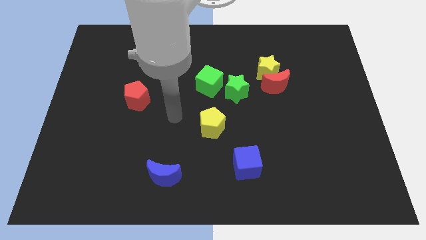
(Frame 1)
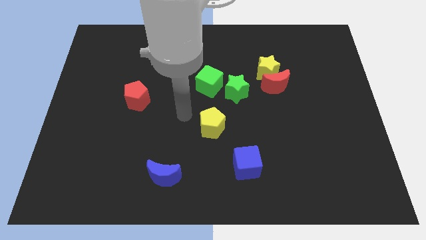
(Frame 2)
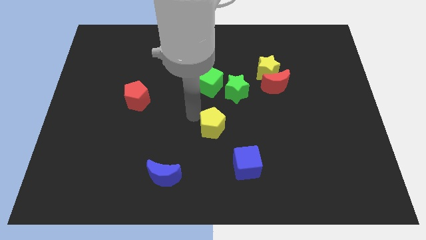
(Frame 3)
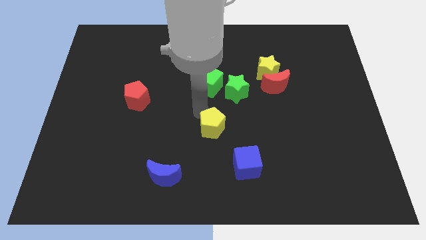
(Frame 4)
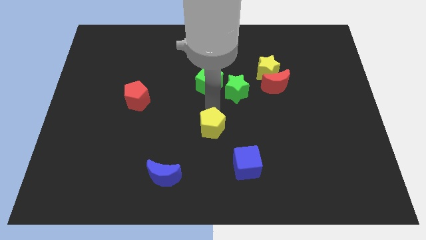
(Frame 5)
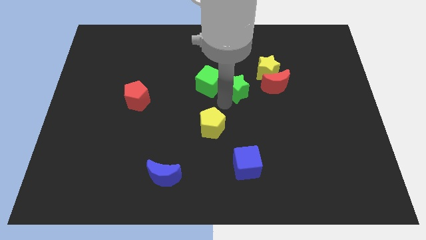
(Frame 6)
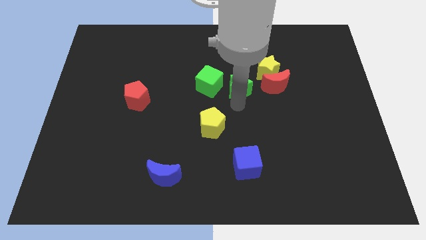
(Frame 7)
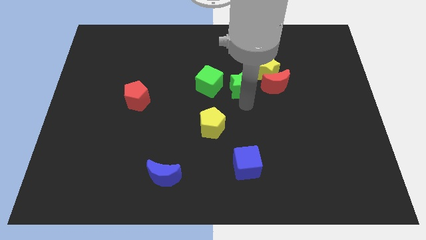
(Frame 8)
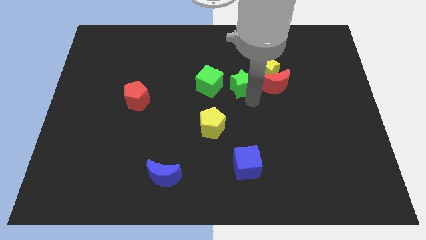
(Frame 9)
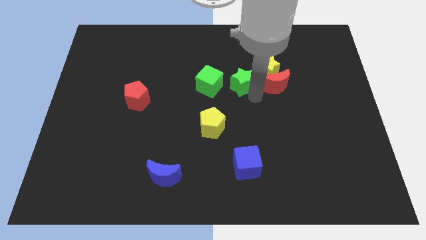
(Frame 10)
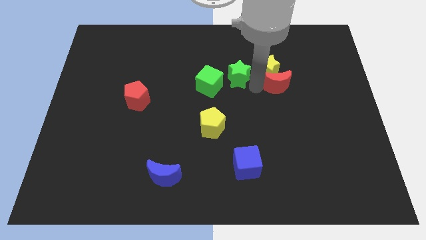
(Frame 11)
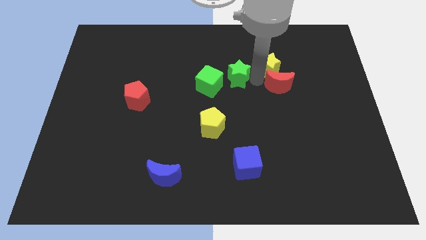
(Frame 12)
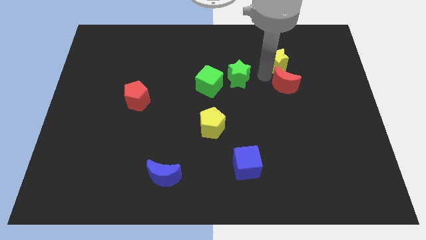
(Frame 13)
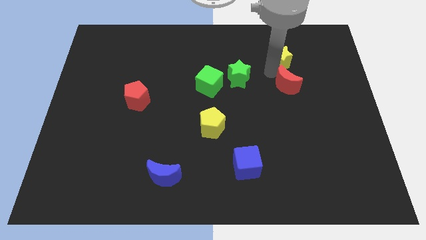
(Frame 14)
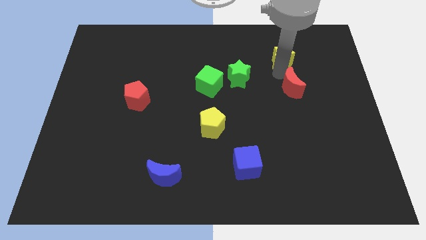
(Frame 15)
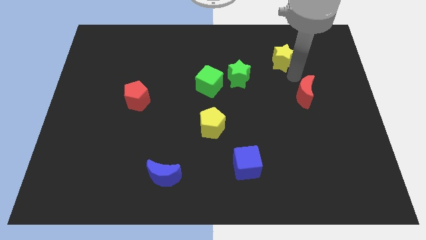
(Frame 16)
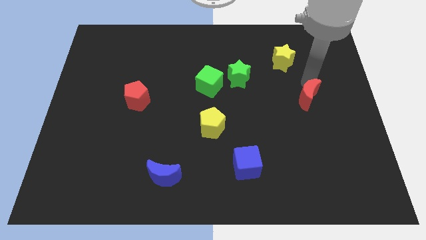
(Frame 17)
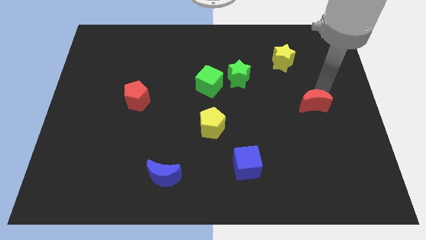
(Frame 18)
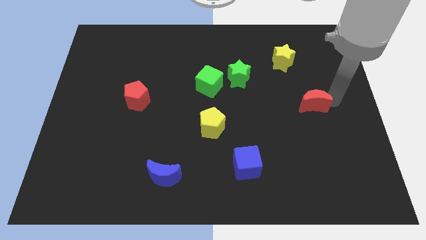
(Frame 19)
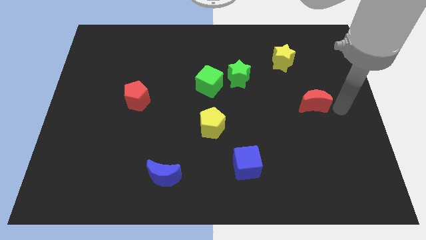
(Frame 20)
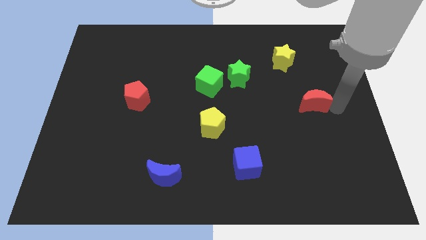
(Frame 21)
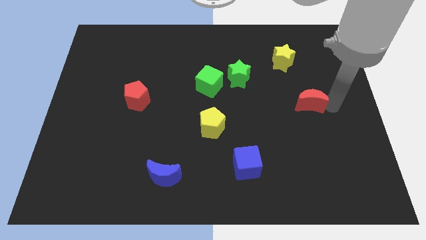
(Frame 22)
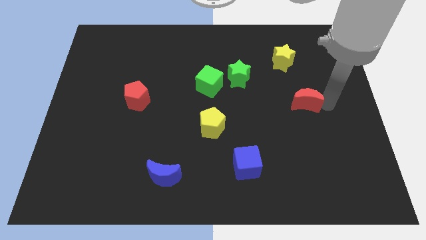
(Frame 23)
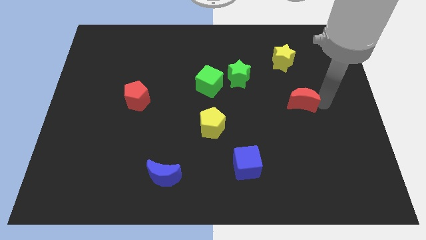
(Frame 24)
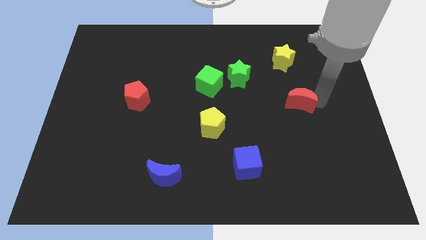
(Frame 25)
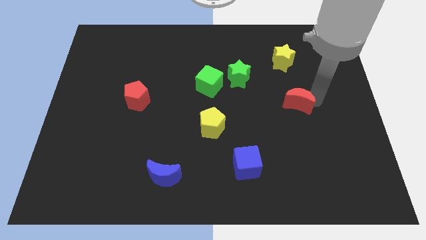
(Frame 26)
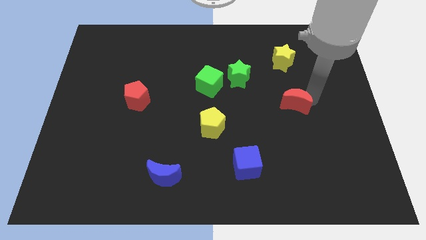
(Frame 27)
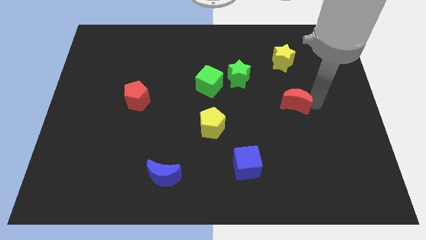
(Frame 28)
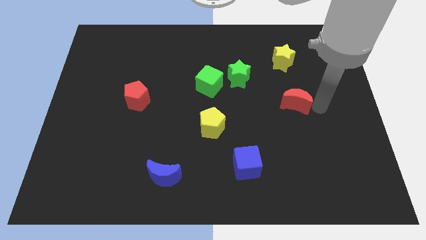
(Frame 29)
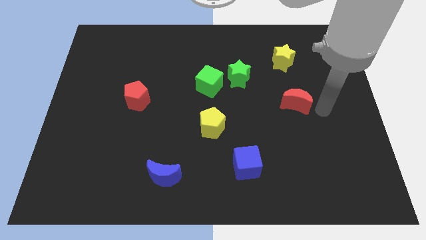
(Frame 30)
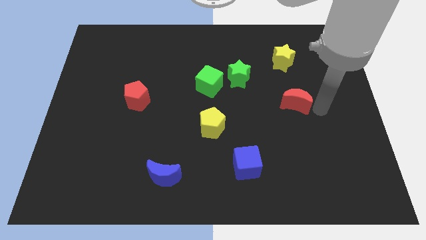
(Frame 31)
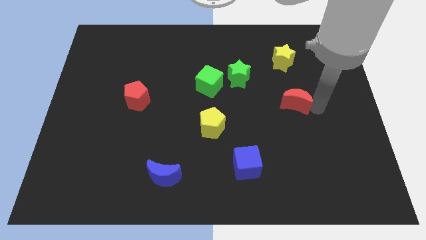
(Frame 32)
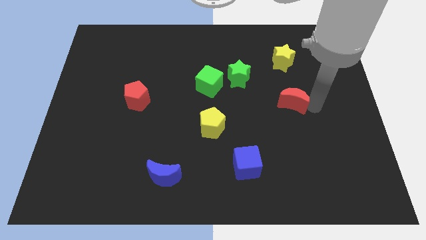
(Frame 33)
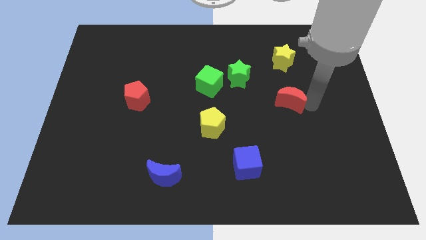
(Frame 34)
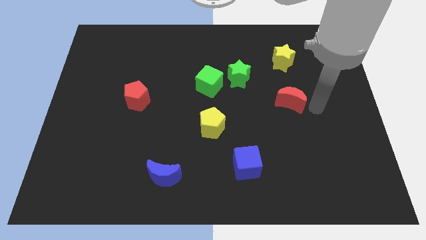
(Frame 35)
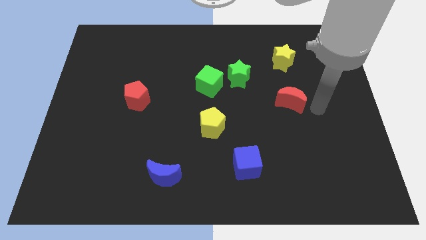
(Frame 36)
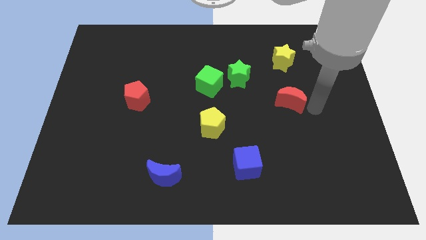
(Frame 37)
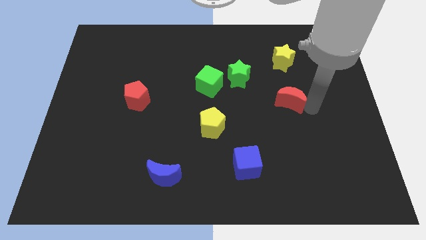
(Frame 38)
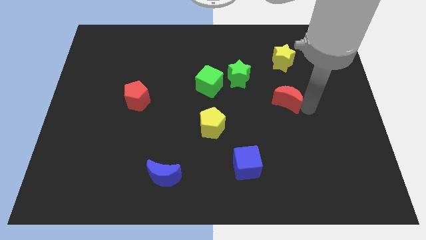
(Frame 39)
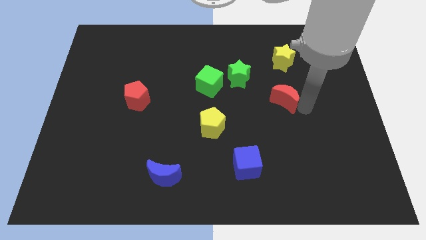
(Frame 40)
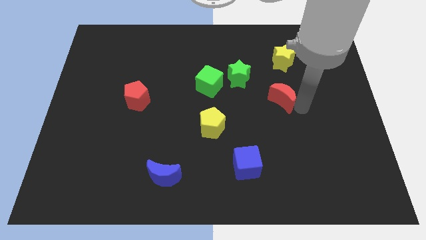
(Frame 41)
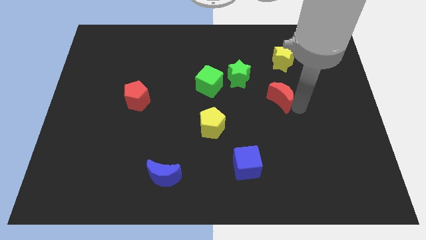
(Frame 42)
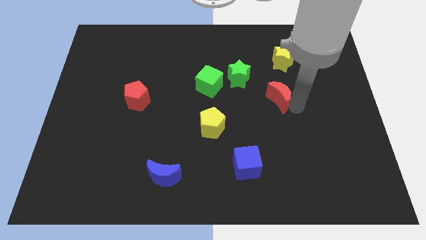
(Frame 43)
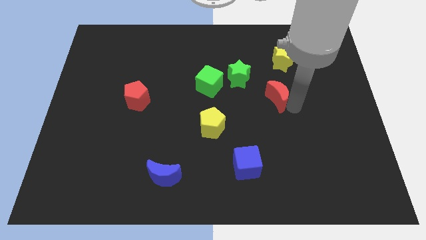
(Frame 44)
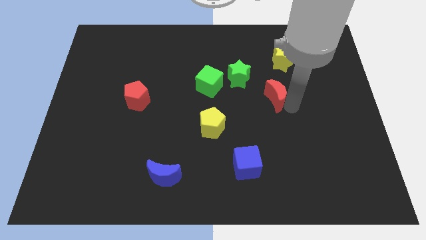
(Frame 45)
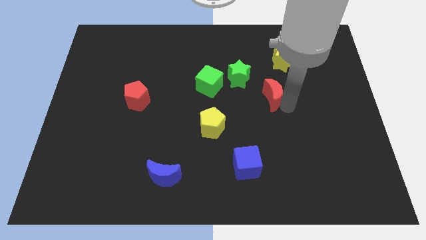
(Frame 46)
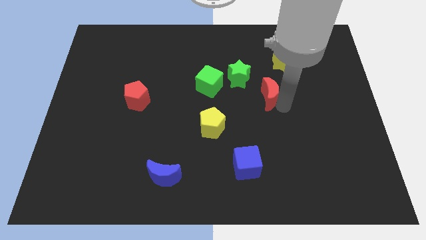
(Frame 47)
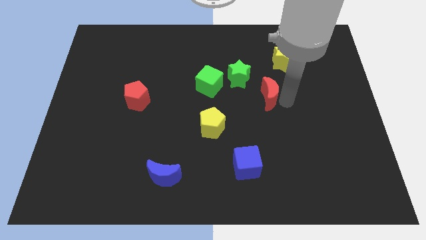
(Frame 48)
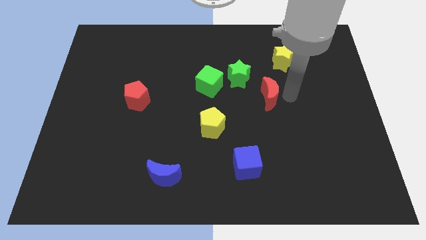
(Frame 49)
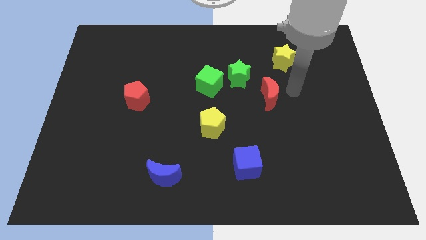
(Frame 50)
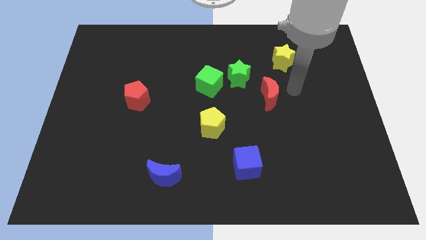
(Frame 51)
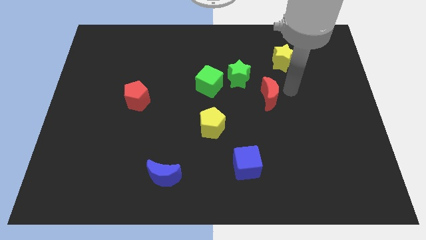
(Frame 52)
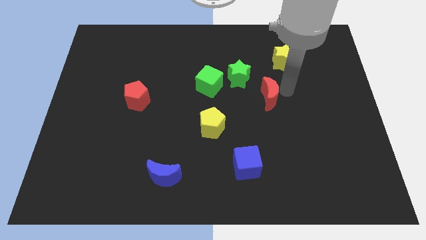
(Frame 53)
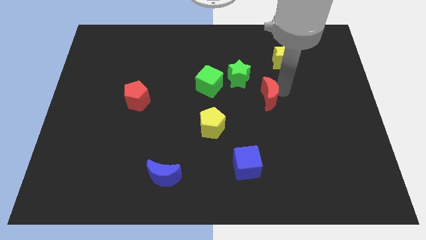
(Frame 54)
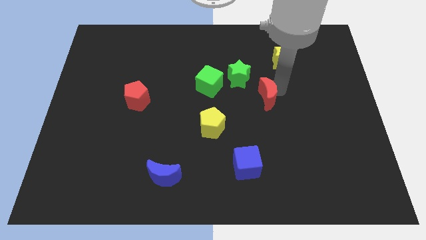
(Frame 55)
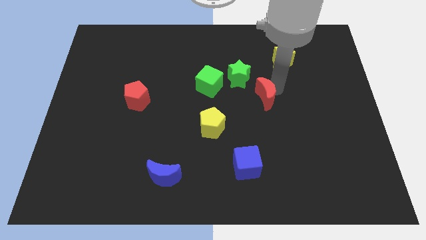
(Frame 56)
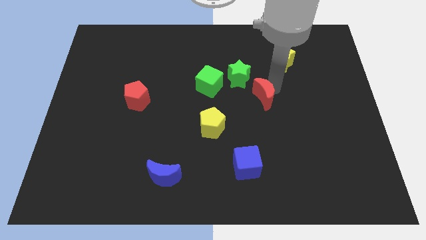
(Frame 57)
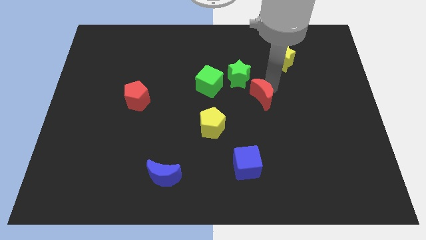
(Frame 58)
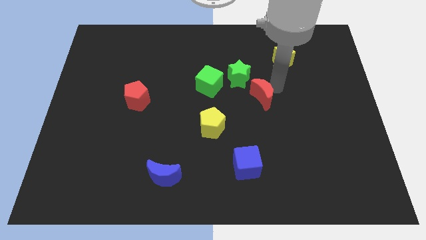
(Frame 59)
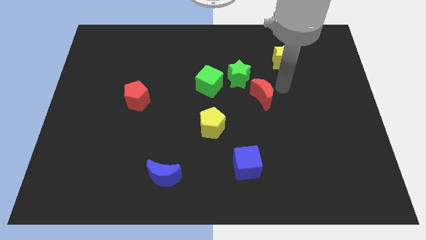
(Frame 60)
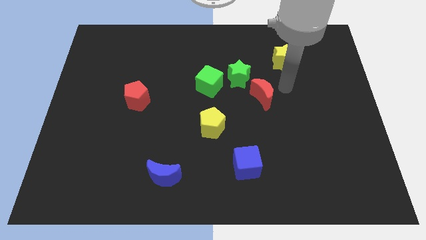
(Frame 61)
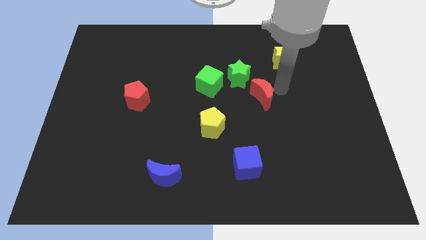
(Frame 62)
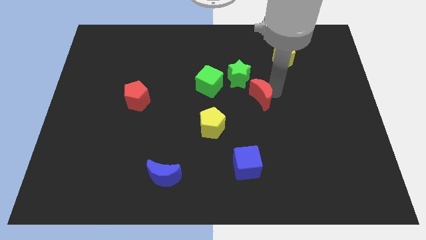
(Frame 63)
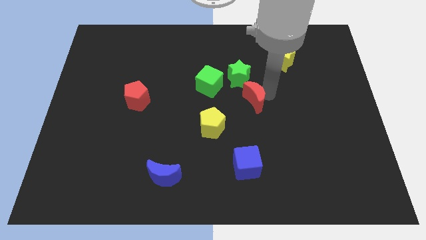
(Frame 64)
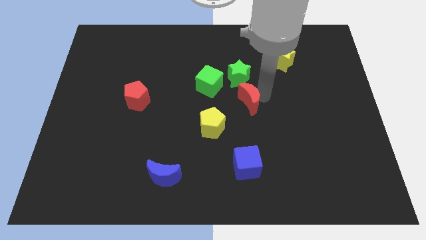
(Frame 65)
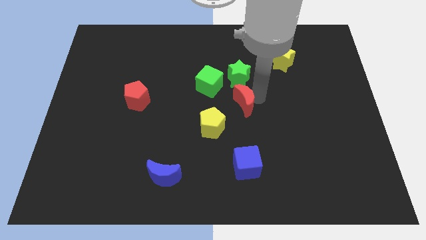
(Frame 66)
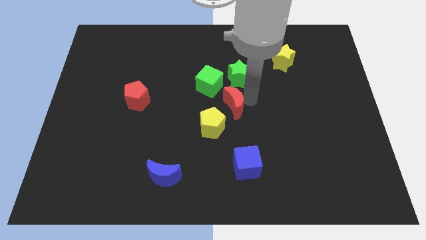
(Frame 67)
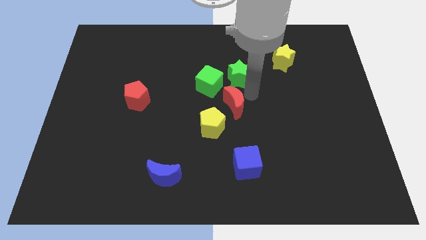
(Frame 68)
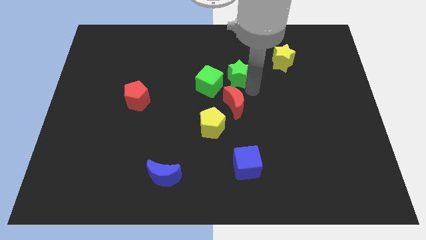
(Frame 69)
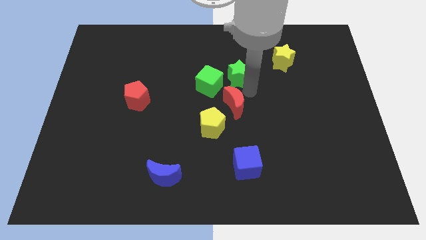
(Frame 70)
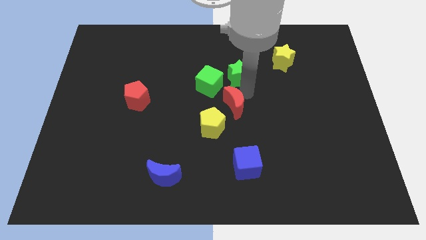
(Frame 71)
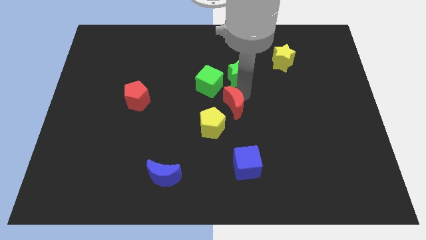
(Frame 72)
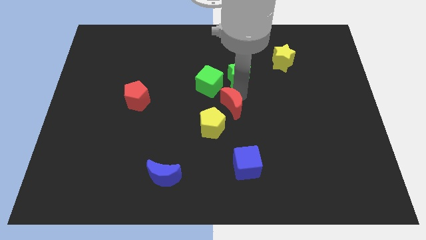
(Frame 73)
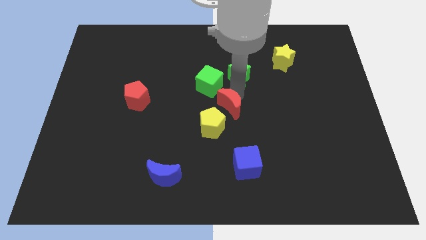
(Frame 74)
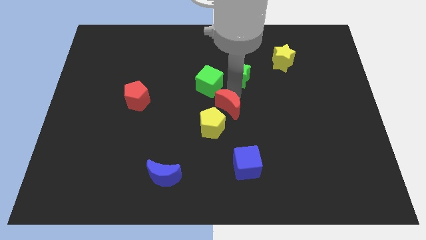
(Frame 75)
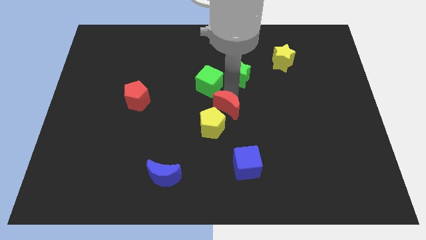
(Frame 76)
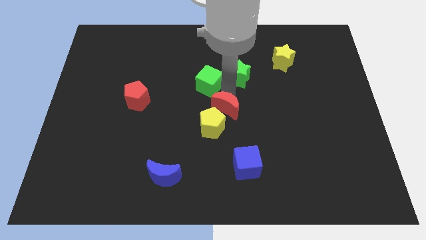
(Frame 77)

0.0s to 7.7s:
move the red moon towards the yellow pentagon
